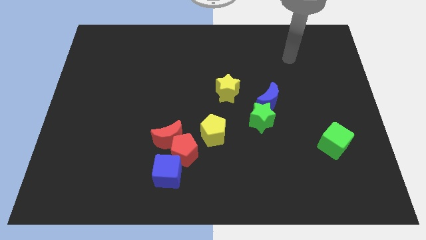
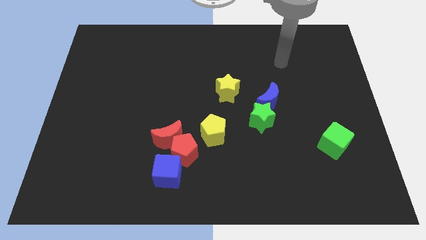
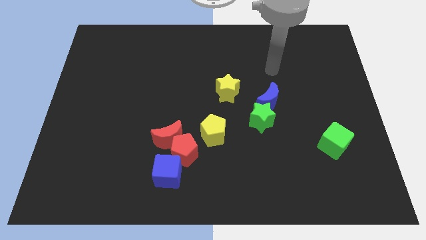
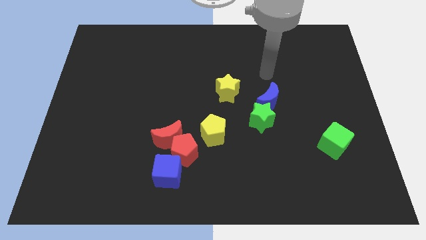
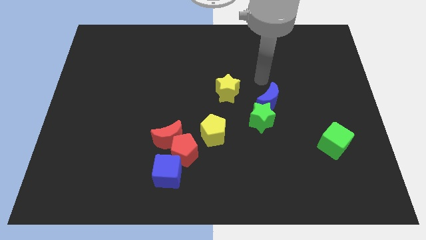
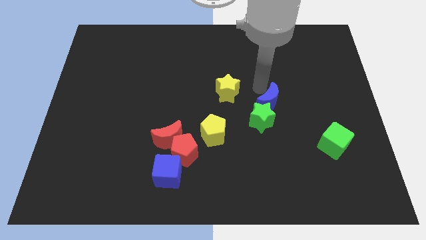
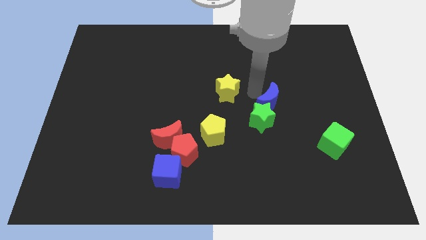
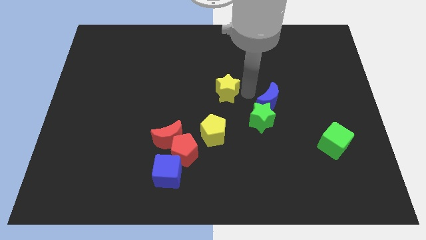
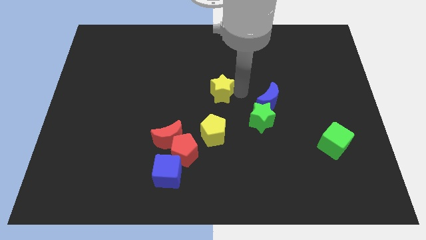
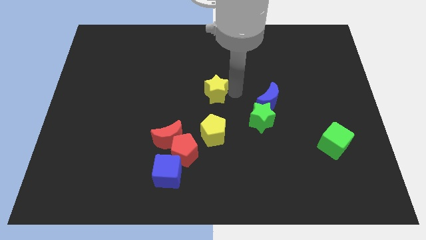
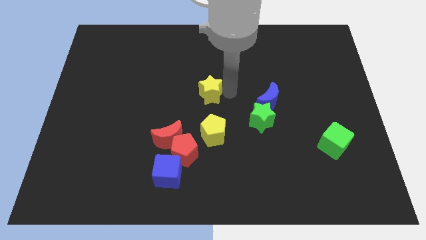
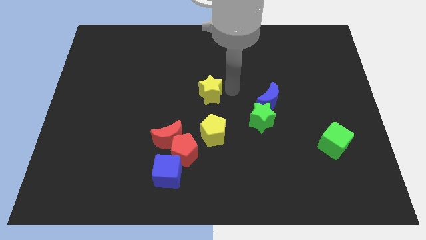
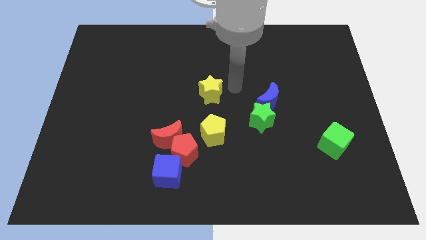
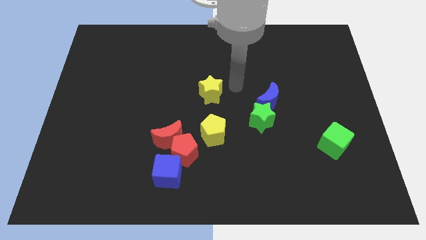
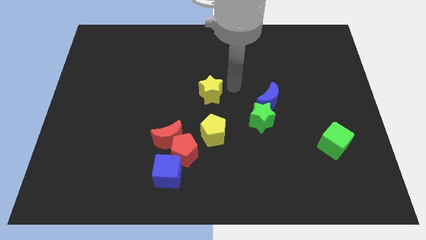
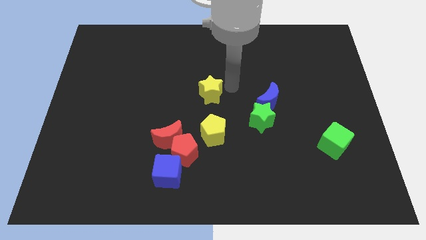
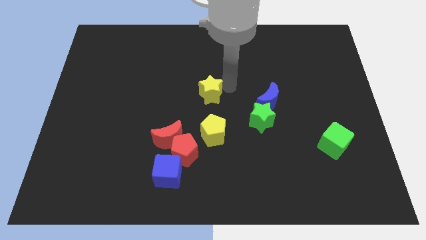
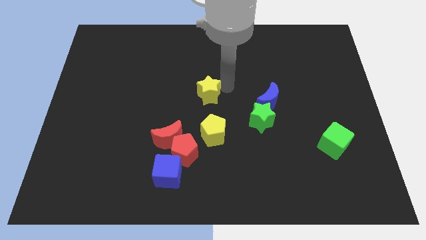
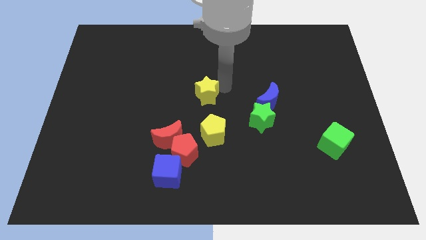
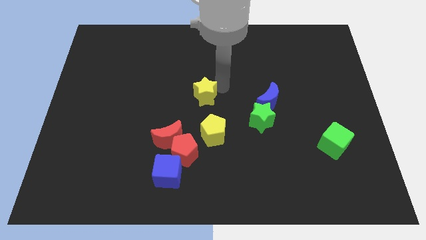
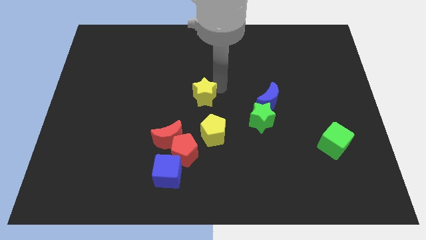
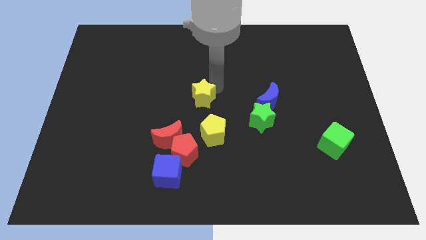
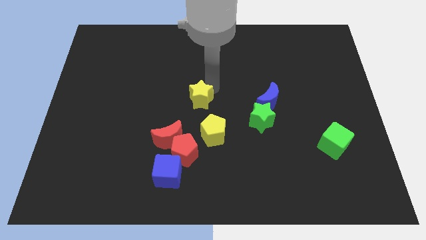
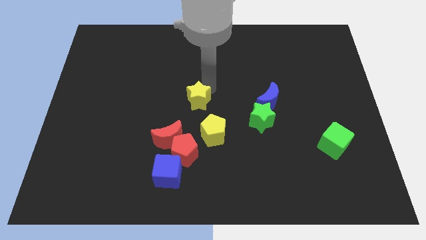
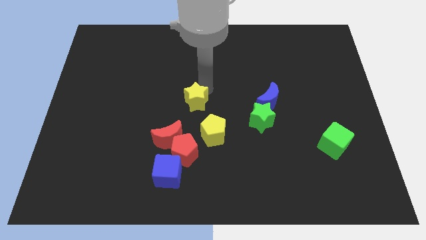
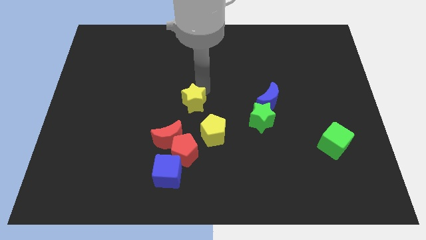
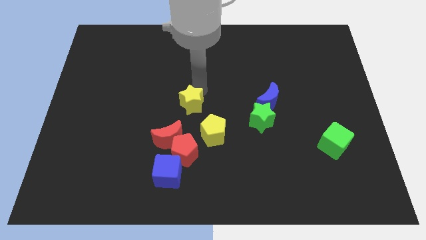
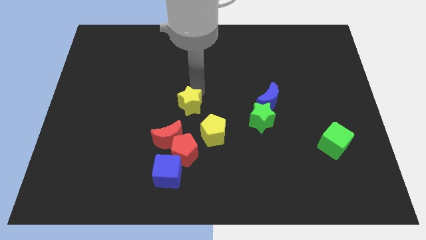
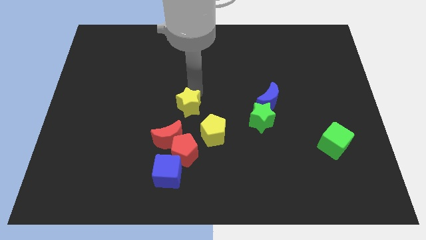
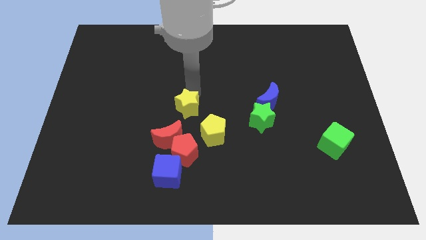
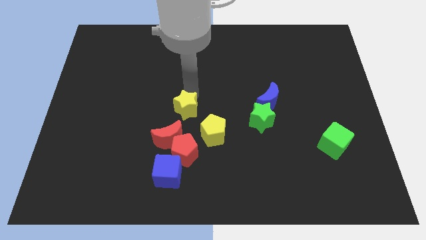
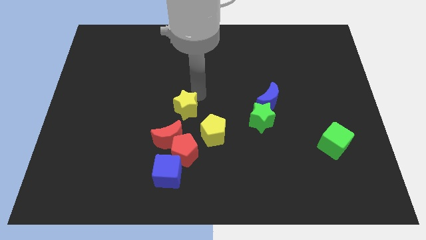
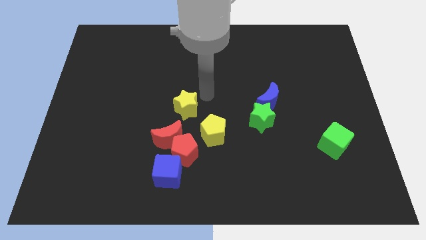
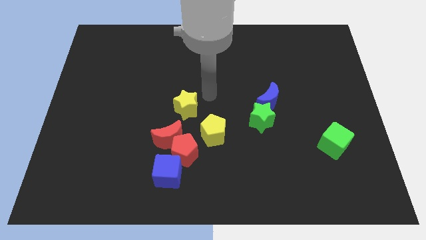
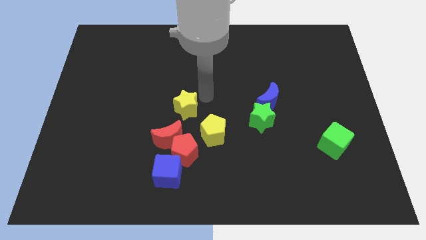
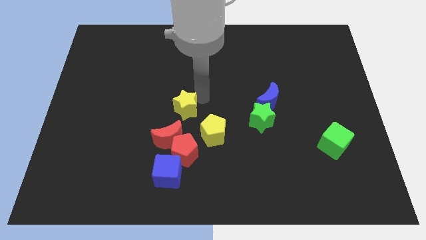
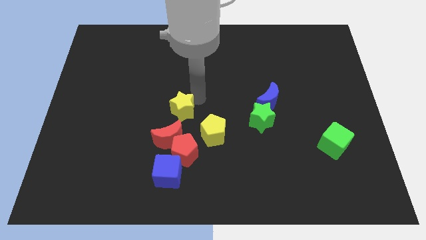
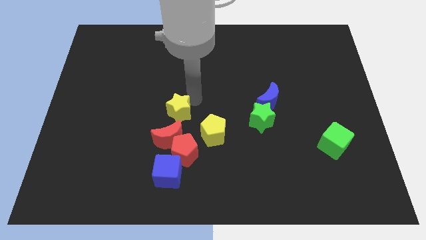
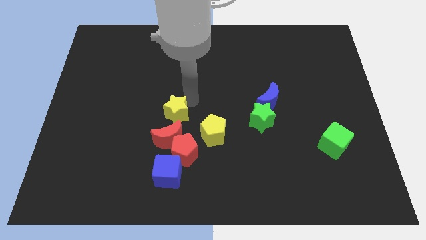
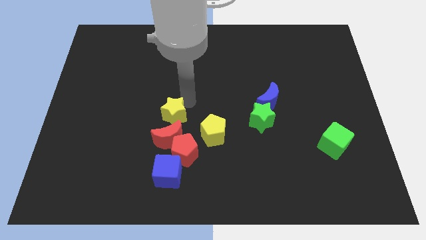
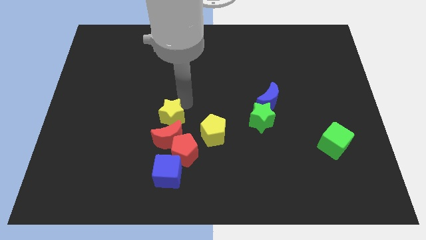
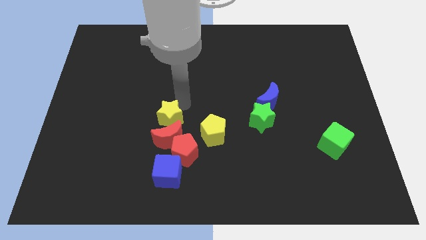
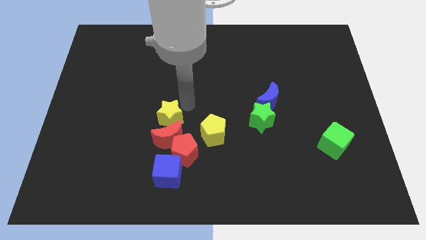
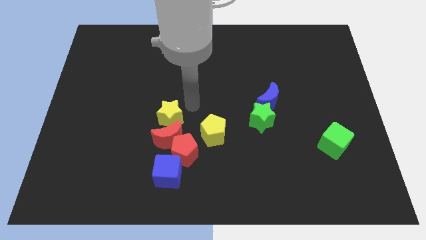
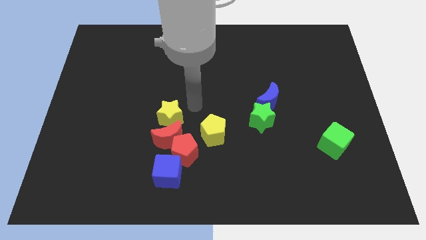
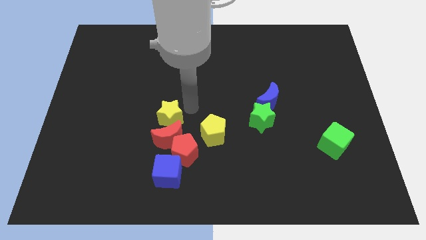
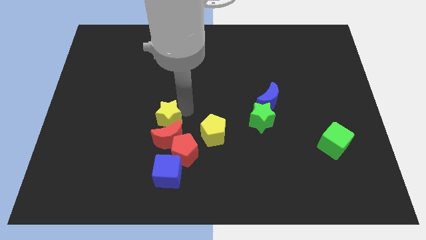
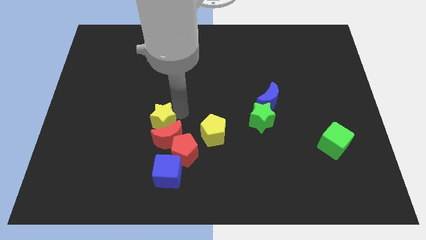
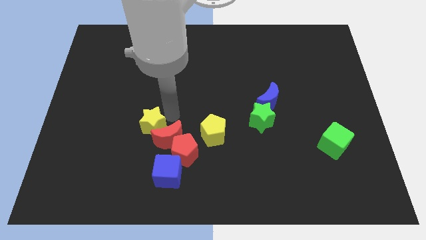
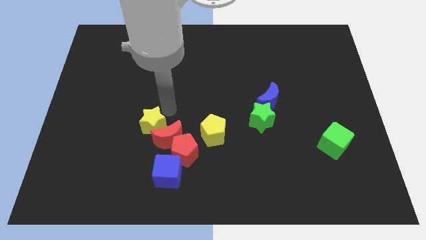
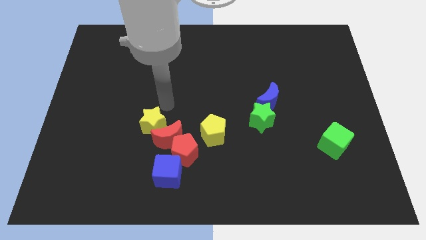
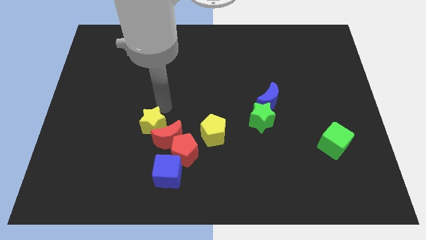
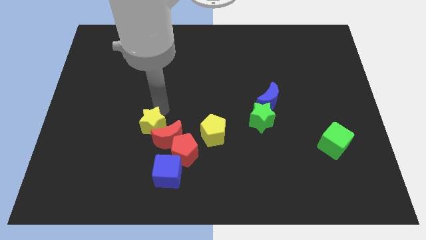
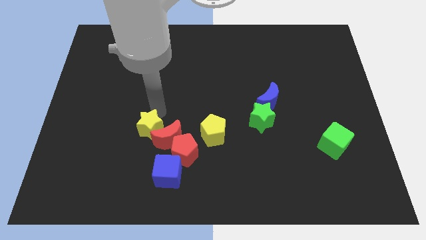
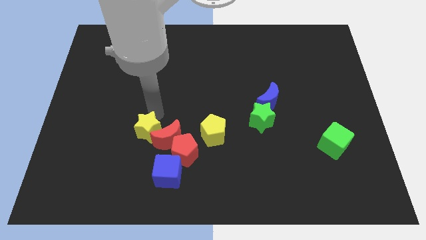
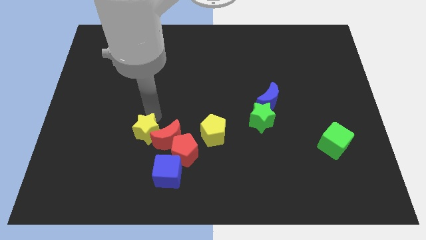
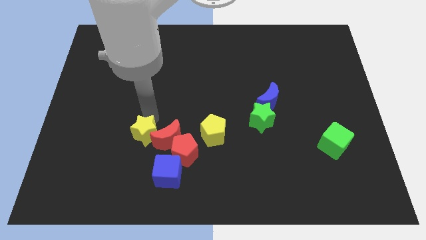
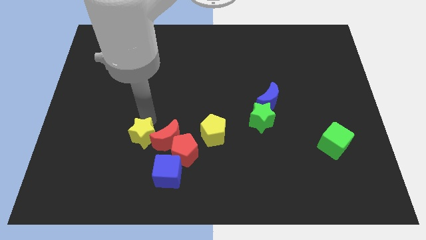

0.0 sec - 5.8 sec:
put the yellow star to the left side of the red pentagon

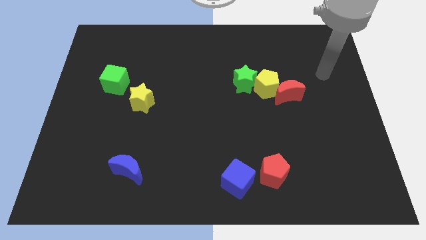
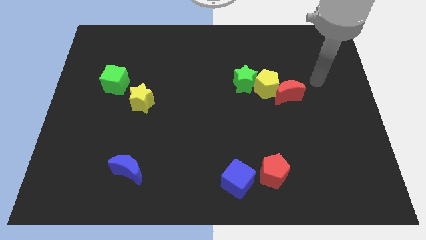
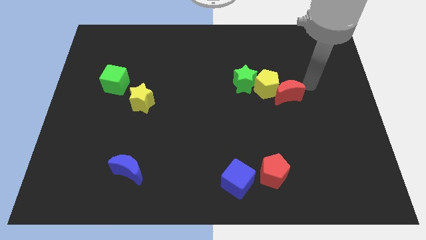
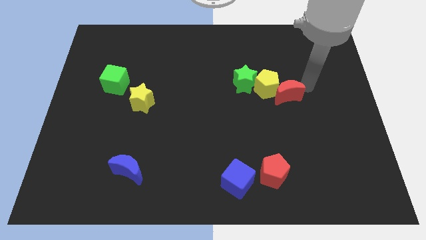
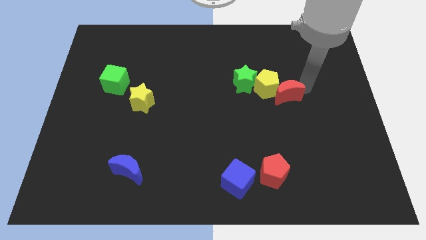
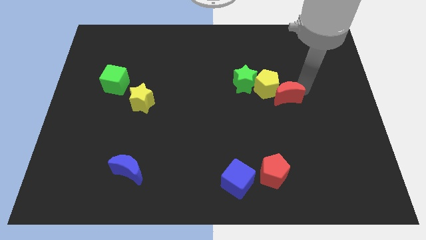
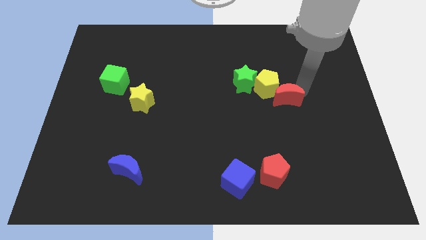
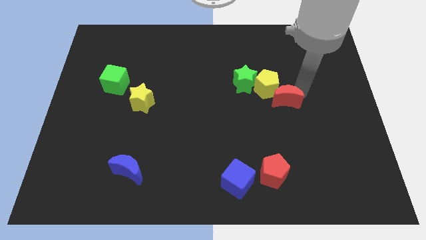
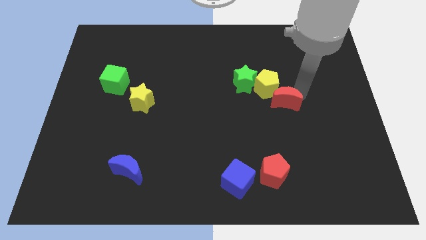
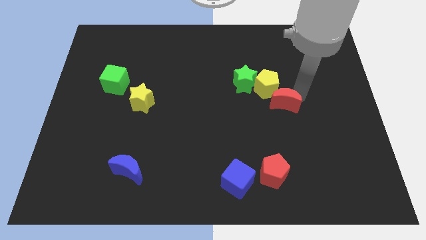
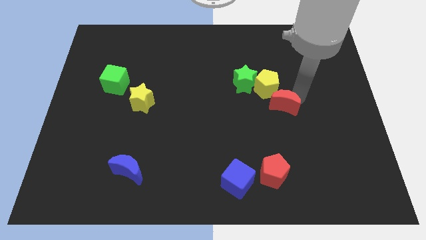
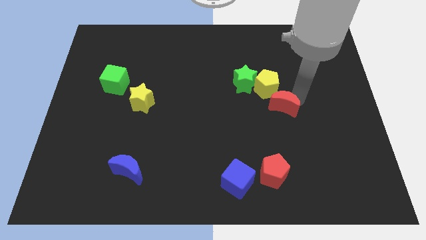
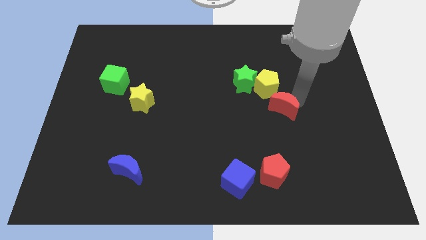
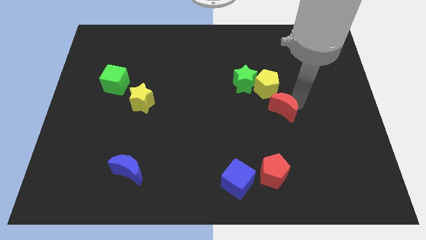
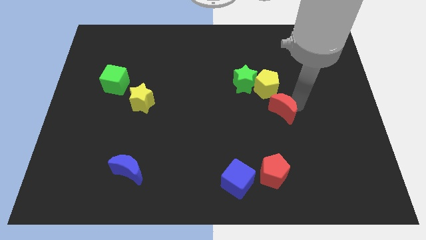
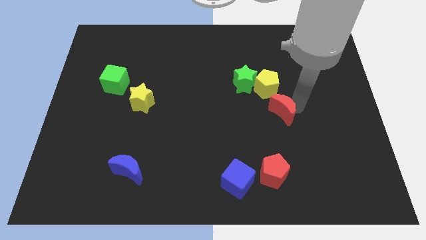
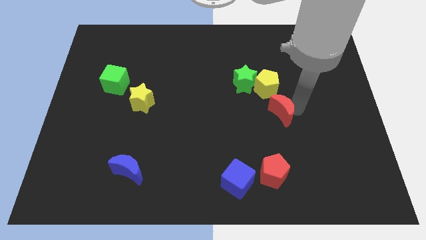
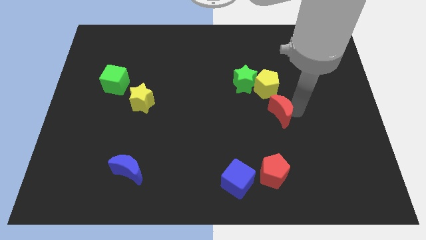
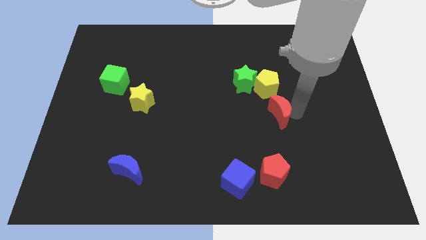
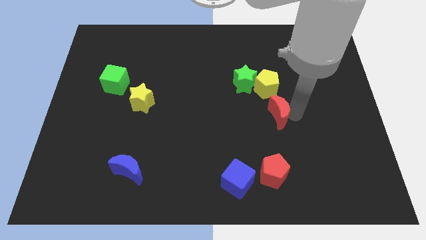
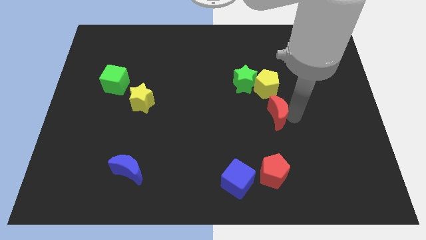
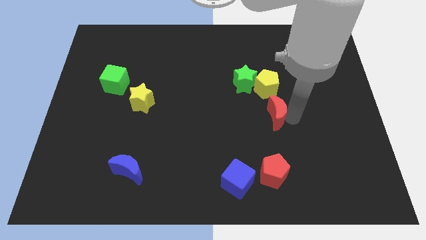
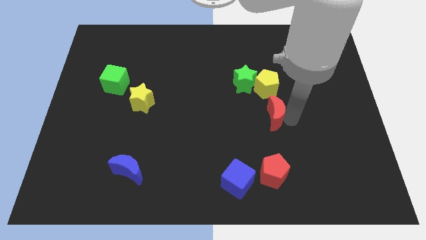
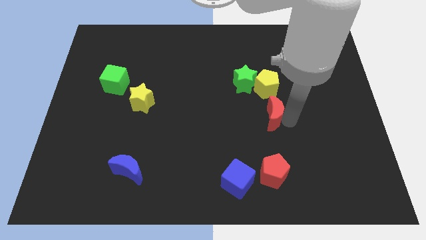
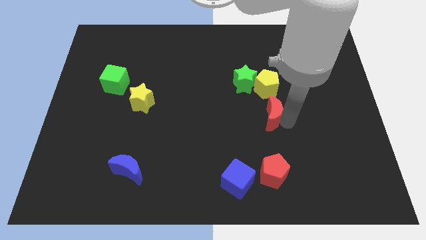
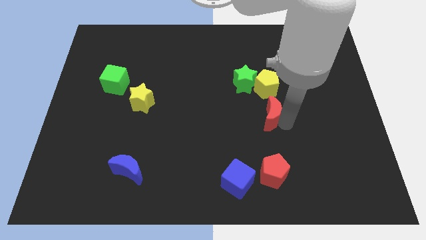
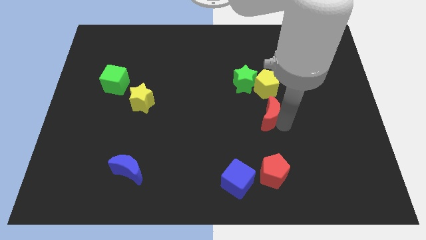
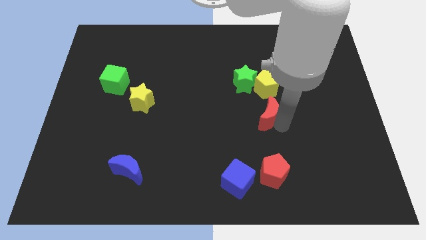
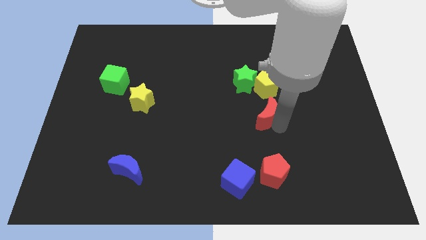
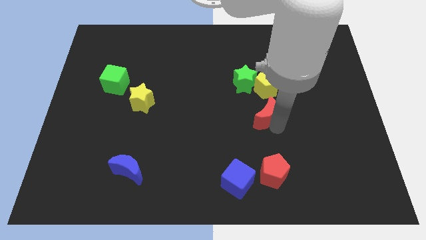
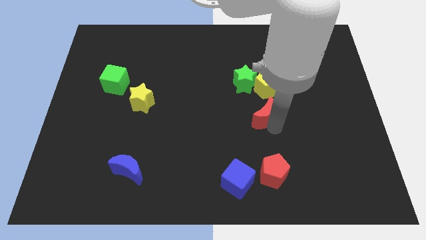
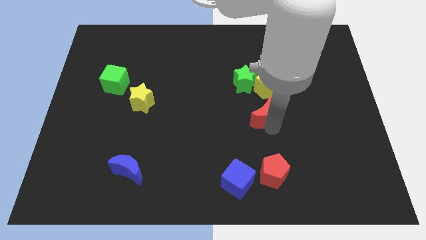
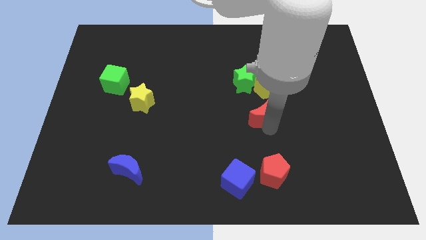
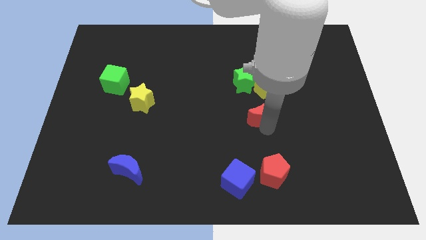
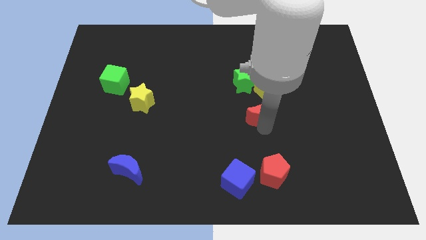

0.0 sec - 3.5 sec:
put the red moon diagonally down and to the left of the yellow pentagon
